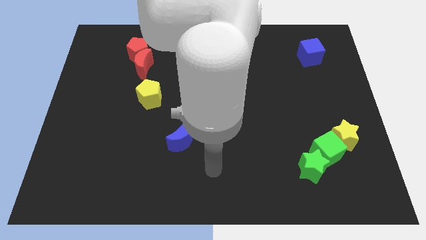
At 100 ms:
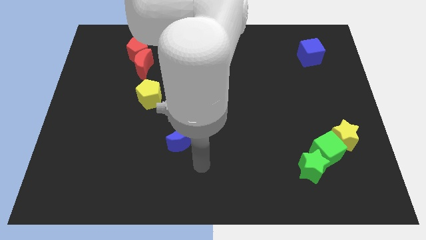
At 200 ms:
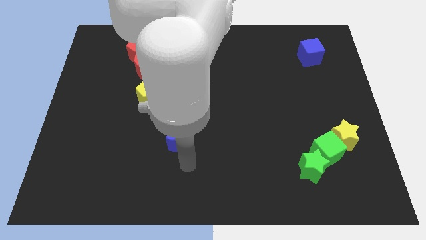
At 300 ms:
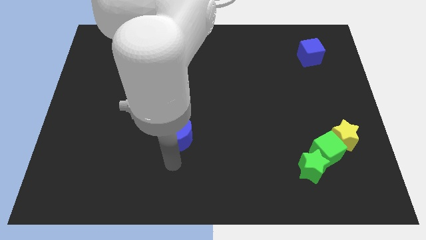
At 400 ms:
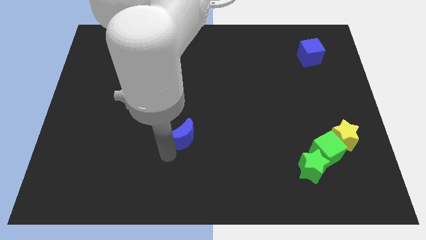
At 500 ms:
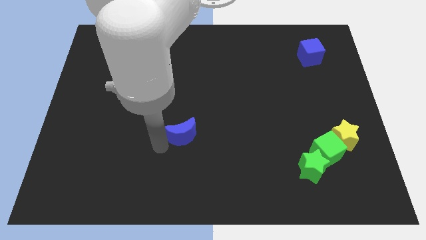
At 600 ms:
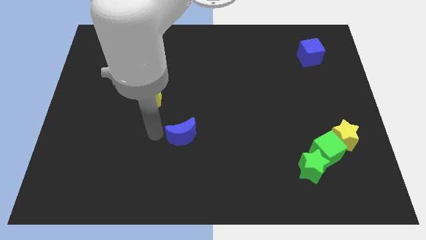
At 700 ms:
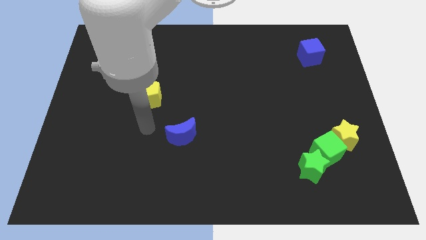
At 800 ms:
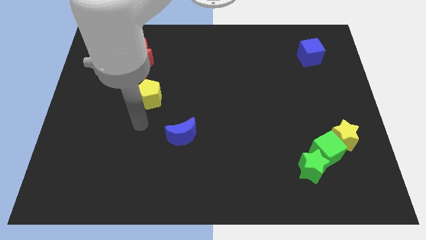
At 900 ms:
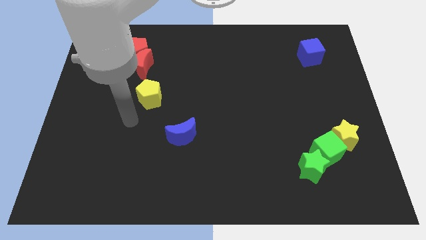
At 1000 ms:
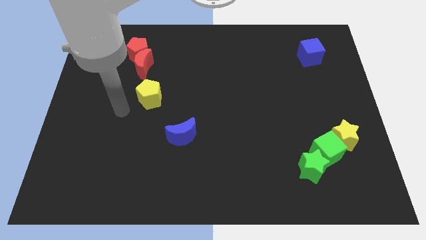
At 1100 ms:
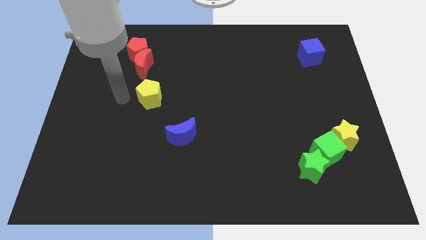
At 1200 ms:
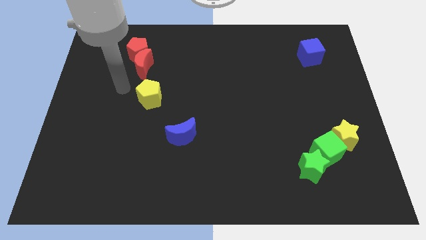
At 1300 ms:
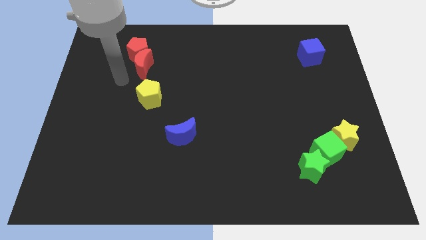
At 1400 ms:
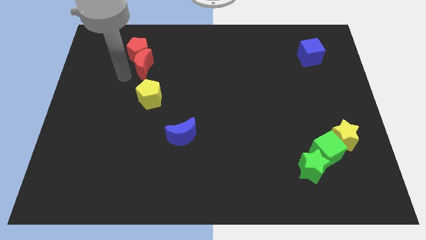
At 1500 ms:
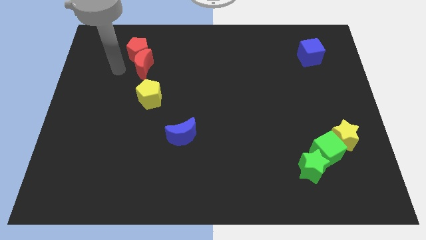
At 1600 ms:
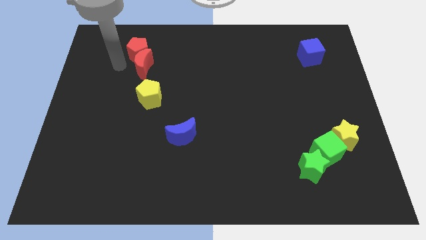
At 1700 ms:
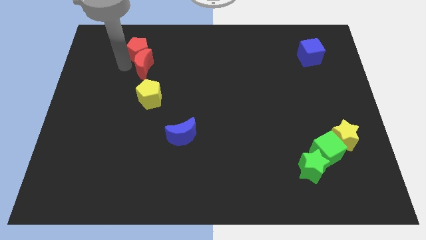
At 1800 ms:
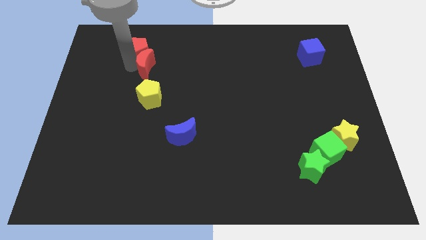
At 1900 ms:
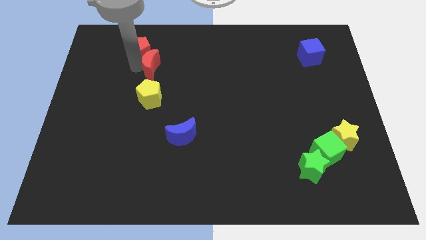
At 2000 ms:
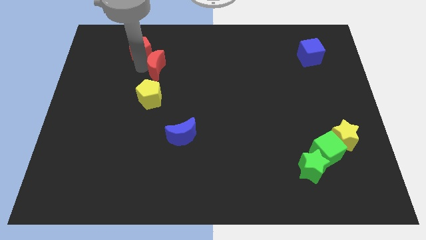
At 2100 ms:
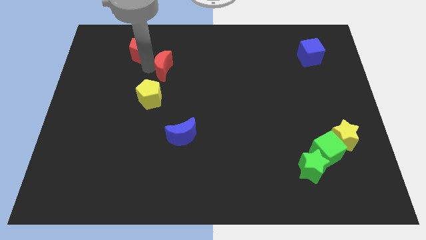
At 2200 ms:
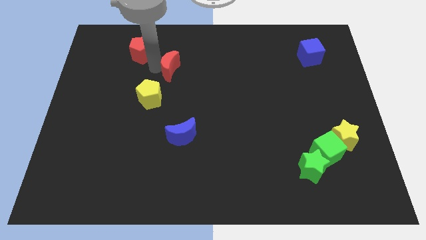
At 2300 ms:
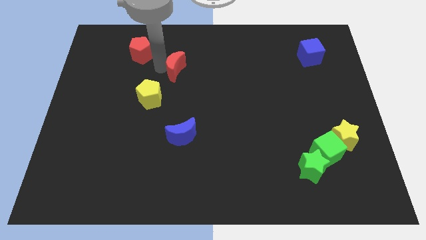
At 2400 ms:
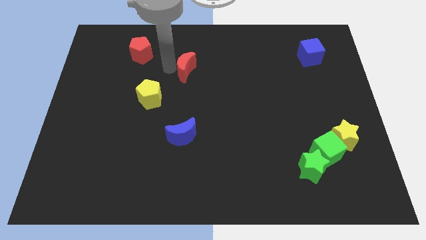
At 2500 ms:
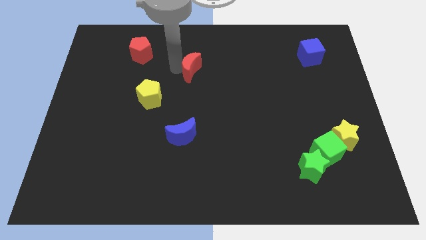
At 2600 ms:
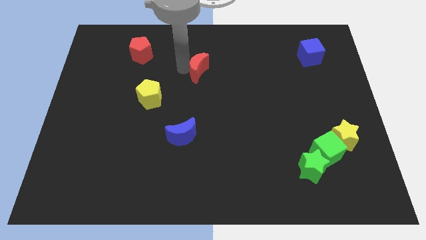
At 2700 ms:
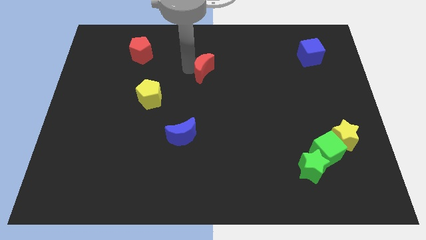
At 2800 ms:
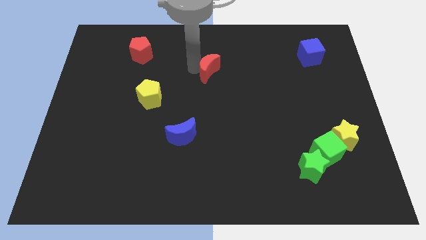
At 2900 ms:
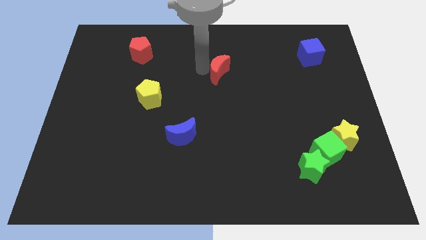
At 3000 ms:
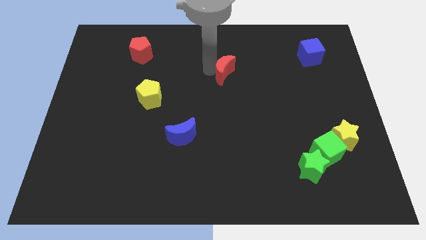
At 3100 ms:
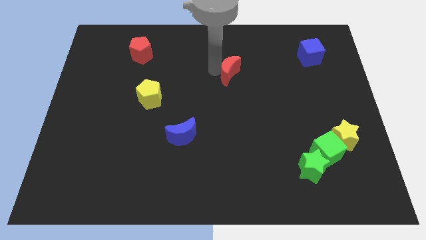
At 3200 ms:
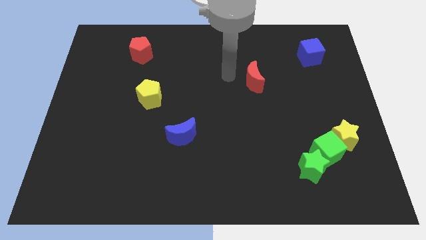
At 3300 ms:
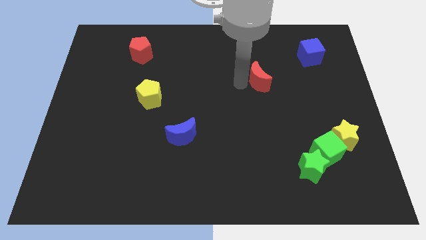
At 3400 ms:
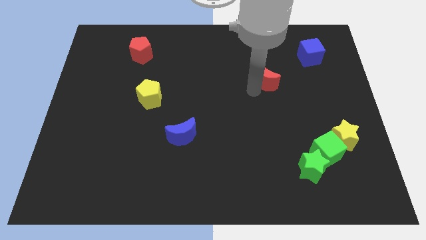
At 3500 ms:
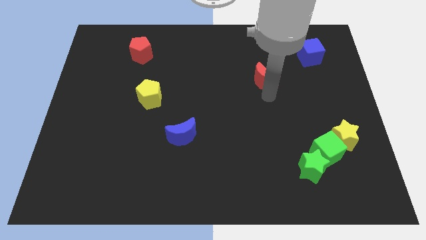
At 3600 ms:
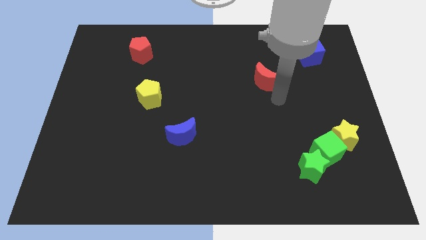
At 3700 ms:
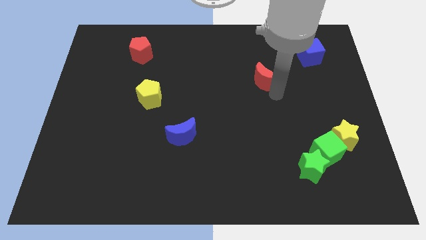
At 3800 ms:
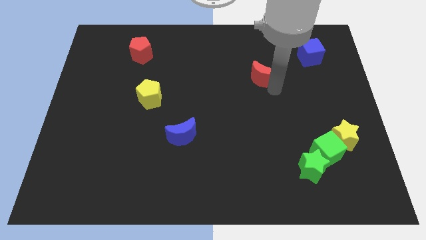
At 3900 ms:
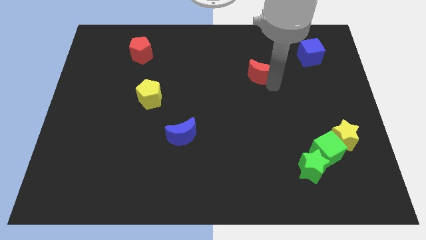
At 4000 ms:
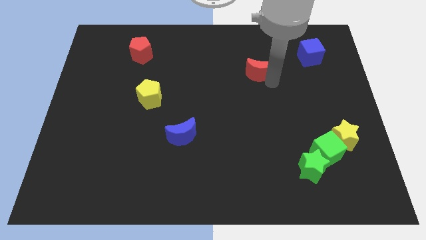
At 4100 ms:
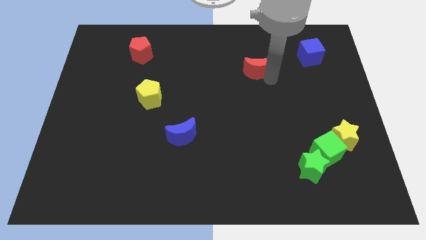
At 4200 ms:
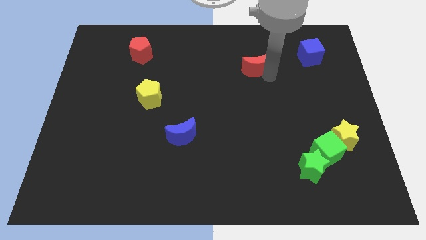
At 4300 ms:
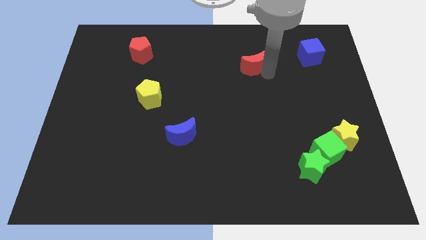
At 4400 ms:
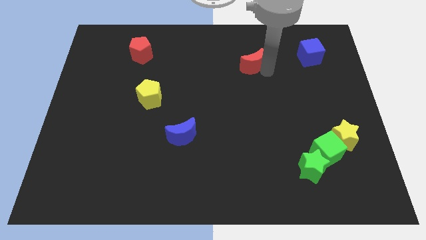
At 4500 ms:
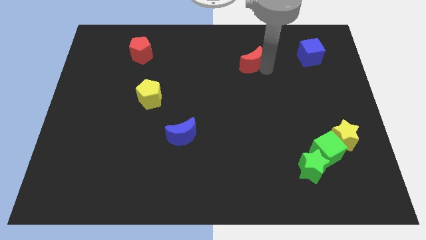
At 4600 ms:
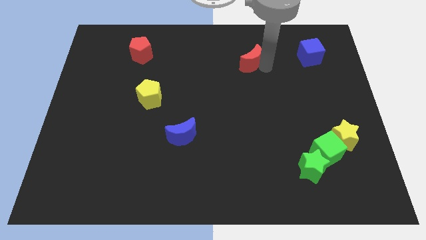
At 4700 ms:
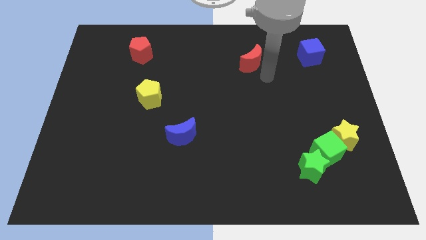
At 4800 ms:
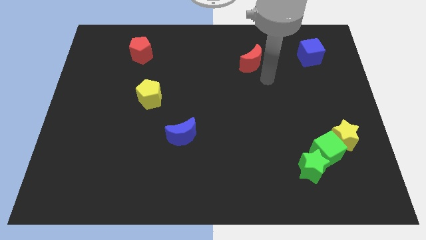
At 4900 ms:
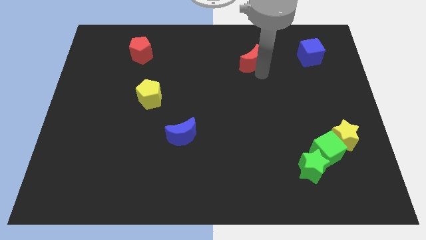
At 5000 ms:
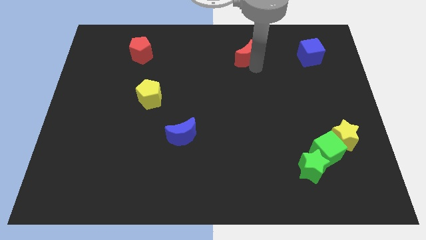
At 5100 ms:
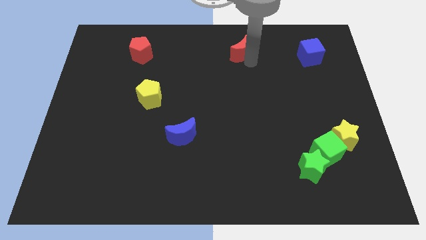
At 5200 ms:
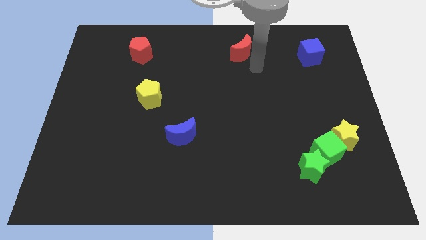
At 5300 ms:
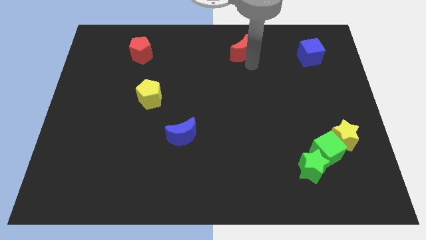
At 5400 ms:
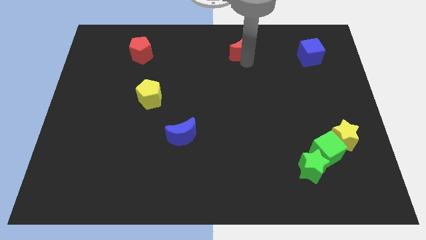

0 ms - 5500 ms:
push the red moon to the towards your base

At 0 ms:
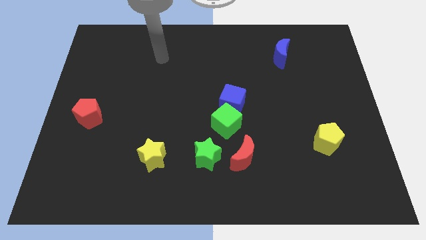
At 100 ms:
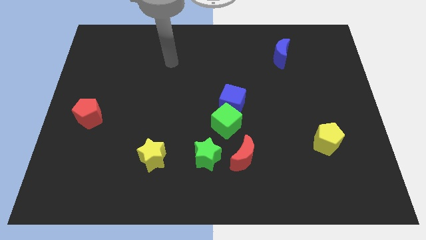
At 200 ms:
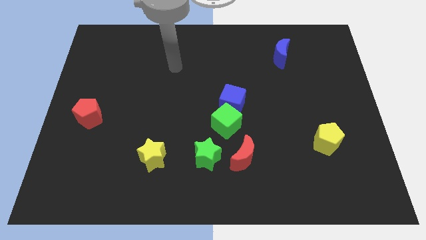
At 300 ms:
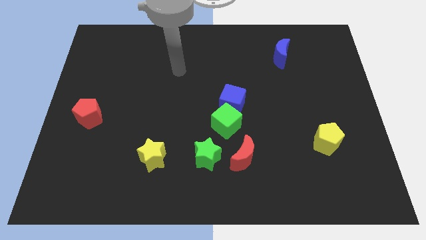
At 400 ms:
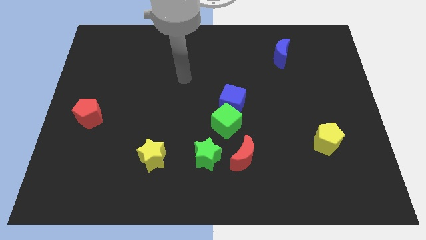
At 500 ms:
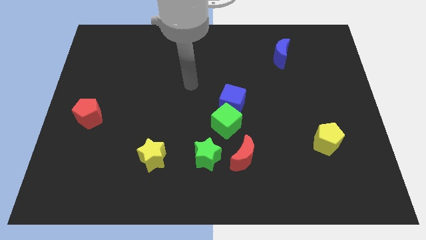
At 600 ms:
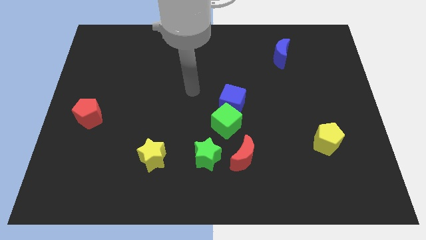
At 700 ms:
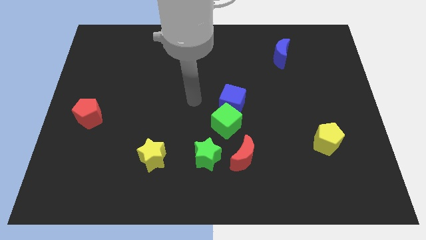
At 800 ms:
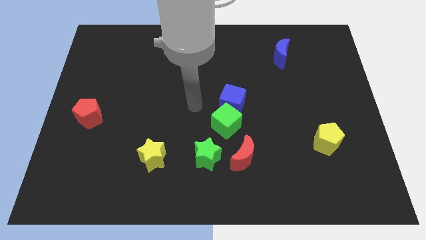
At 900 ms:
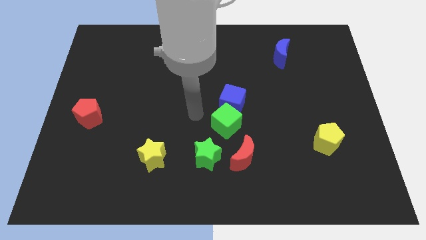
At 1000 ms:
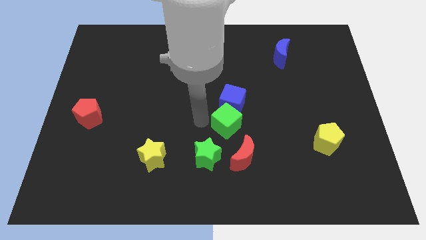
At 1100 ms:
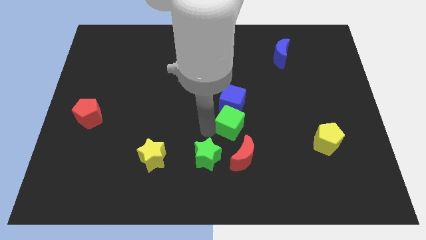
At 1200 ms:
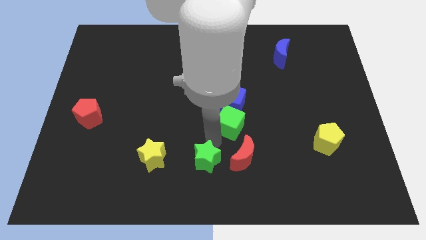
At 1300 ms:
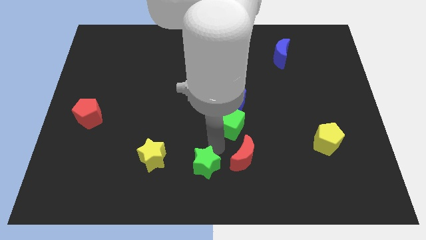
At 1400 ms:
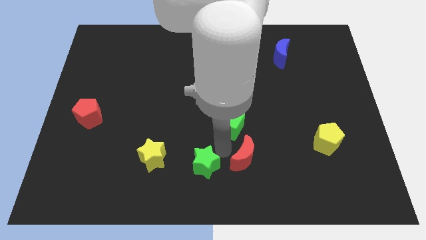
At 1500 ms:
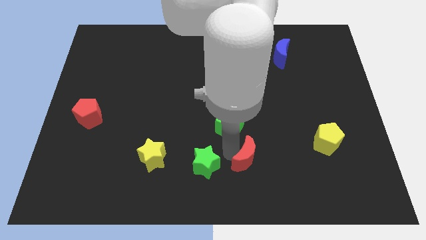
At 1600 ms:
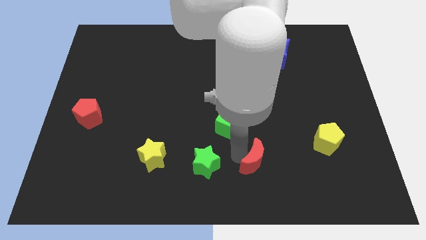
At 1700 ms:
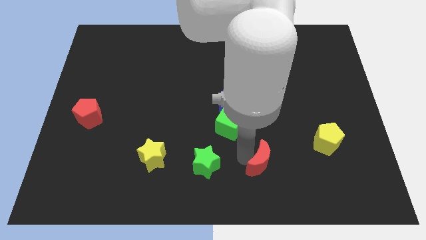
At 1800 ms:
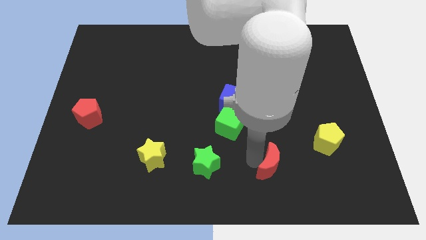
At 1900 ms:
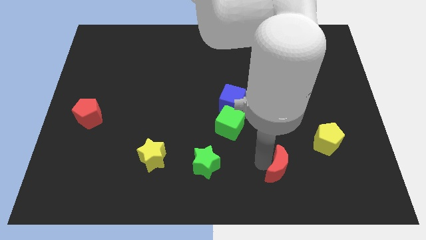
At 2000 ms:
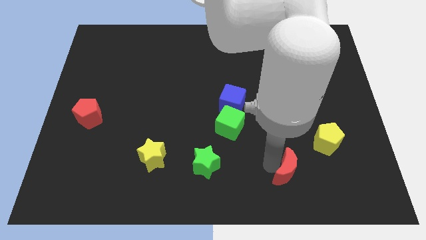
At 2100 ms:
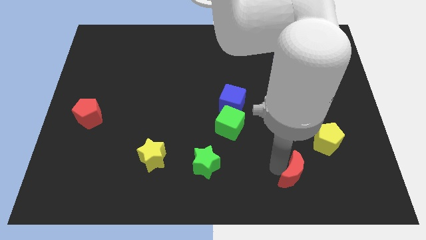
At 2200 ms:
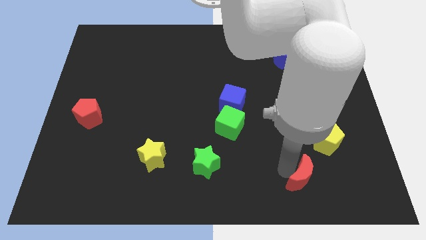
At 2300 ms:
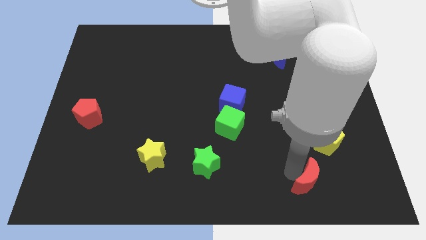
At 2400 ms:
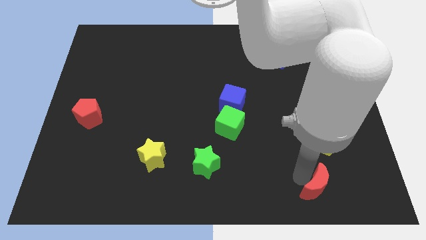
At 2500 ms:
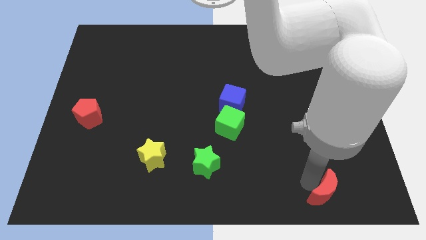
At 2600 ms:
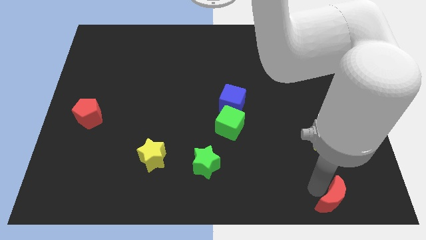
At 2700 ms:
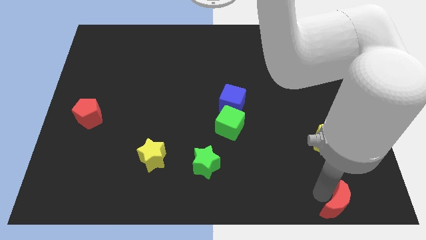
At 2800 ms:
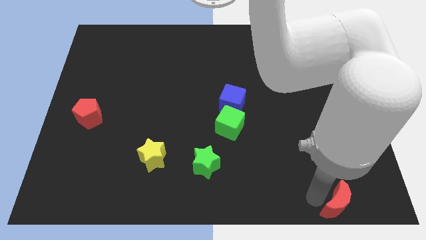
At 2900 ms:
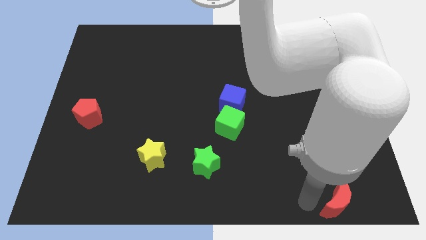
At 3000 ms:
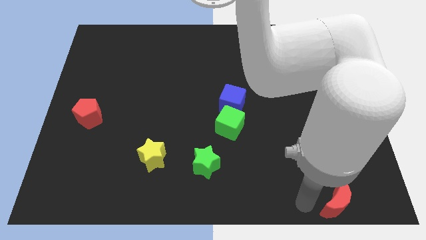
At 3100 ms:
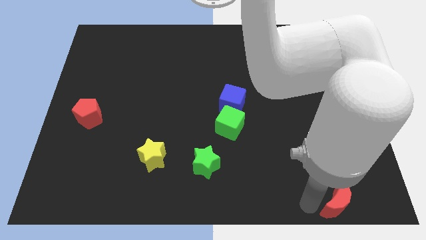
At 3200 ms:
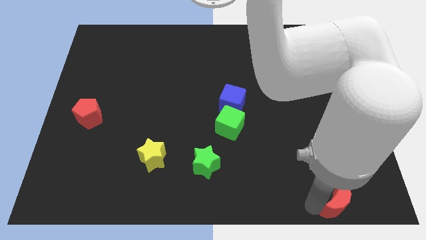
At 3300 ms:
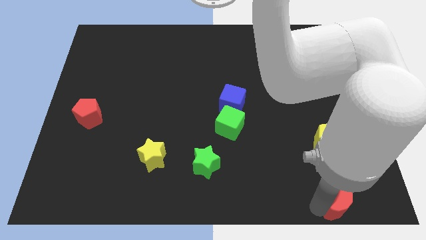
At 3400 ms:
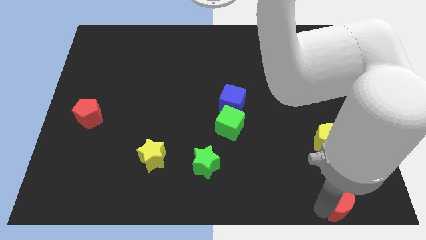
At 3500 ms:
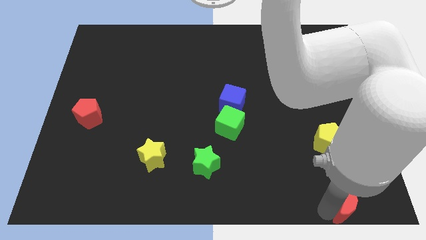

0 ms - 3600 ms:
slide the red moon to the lower right corner
